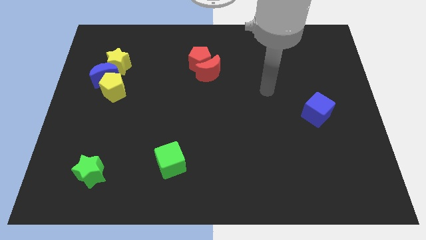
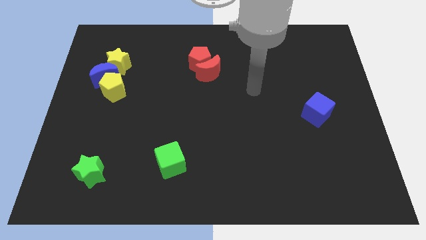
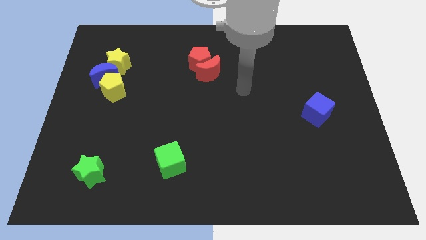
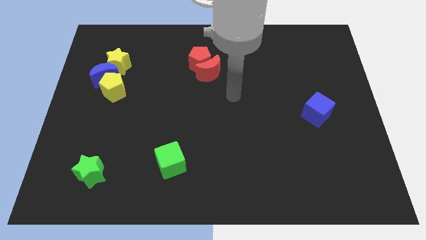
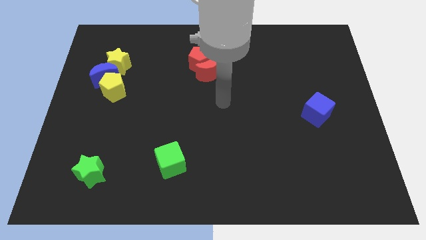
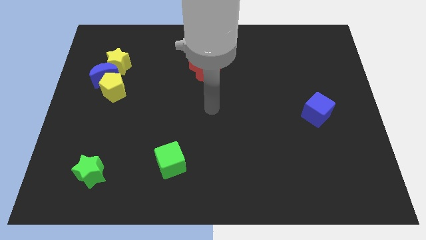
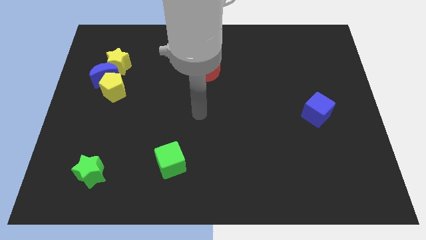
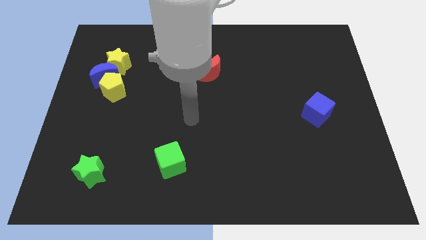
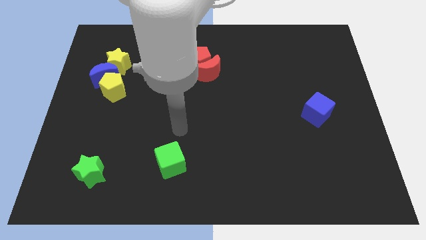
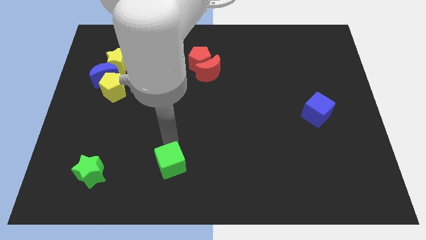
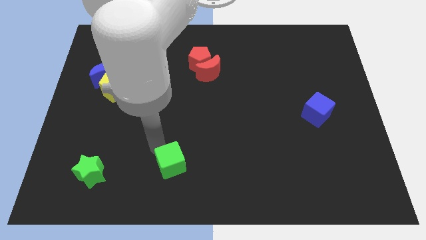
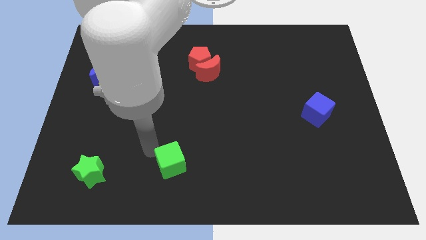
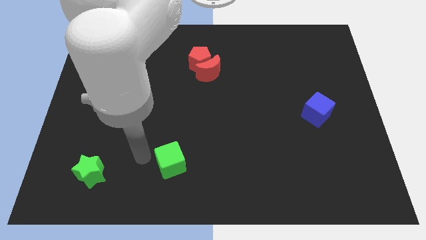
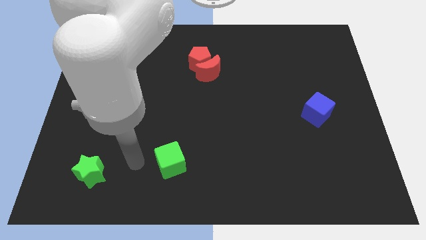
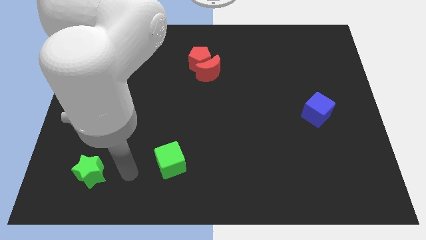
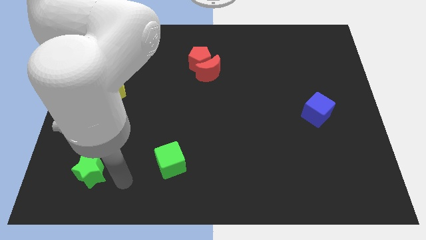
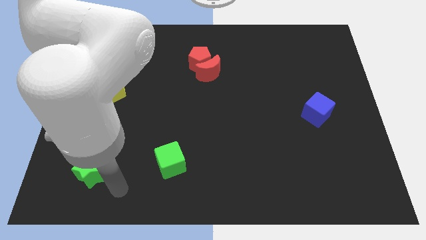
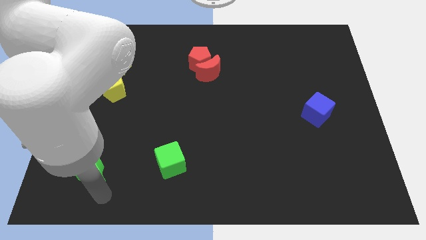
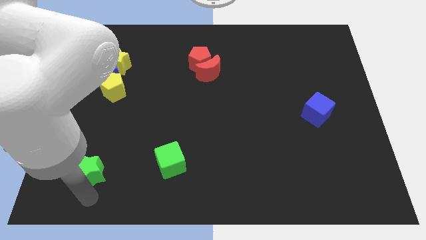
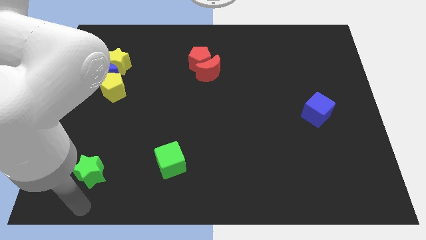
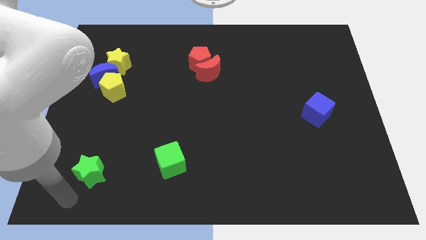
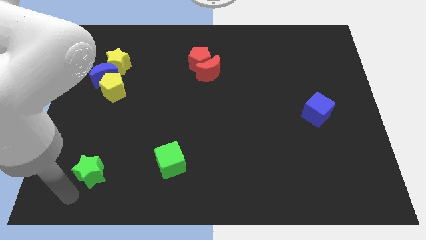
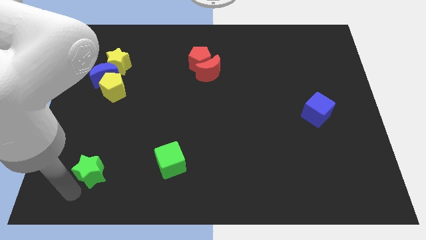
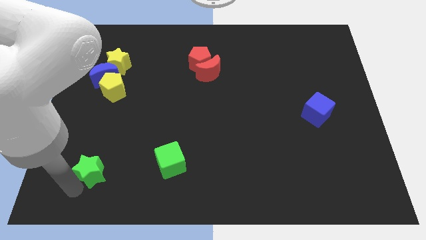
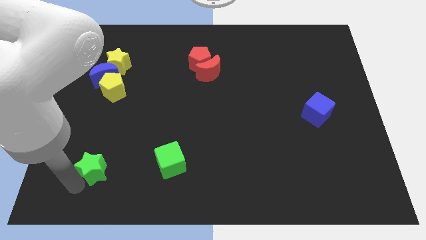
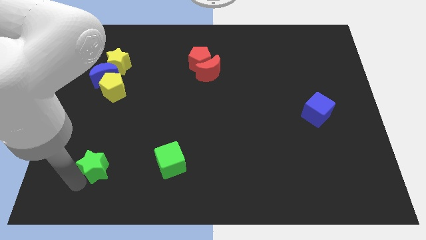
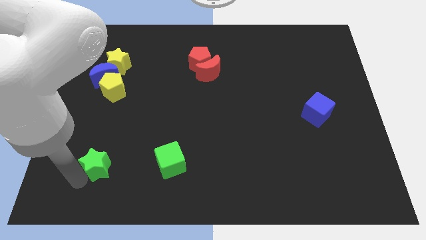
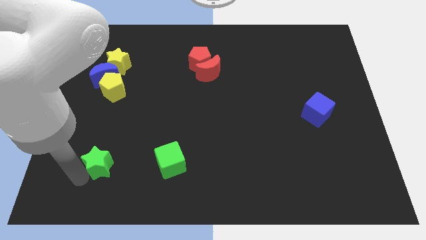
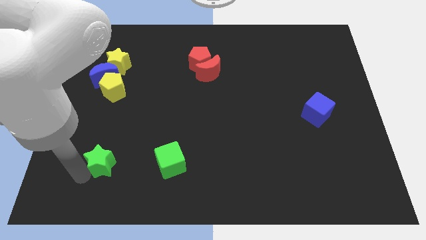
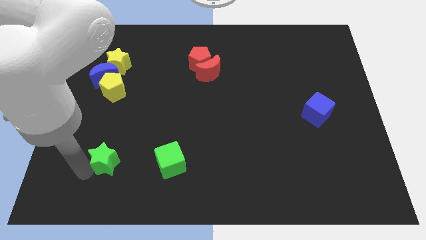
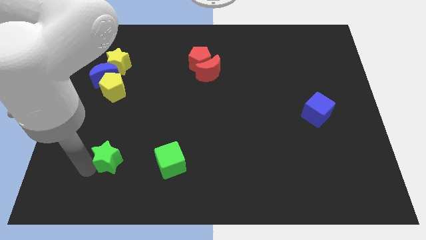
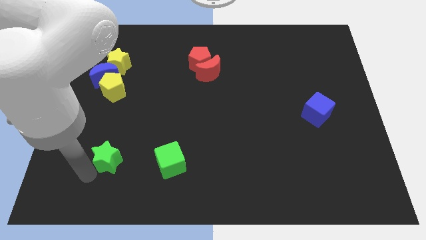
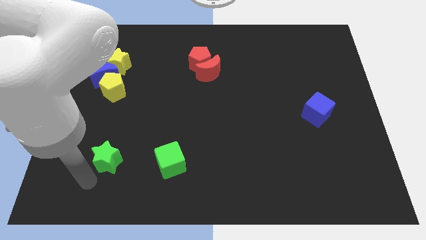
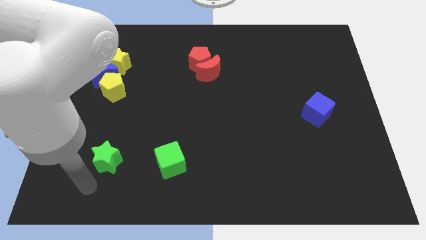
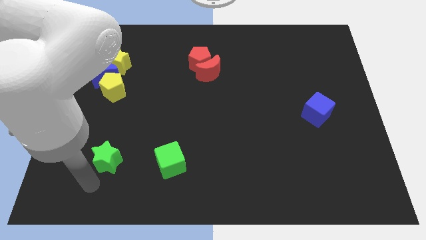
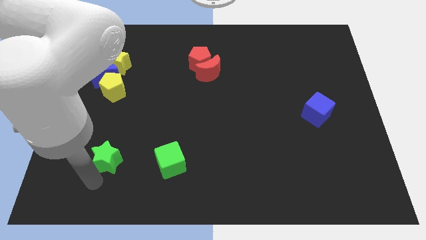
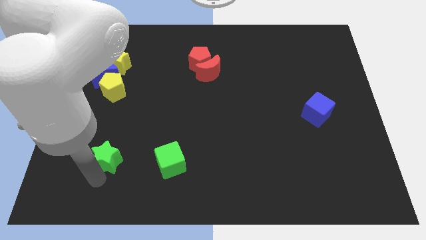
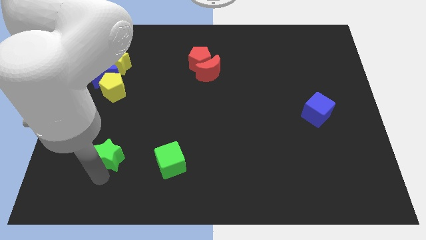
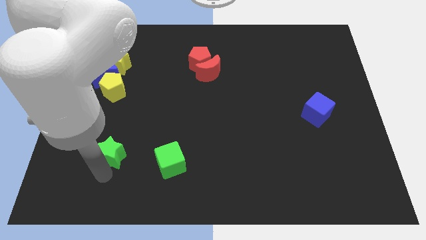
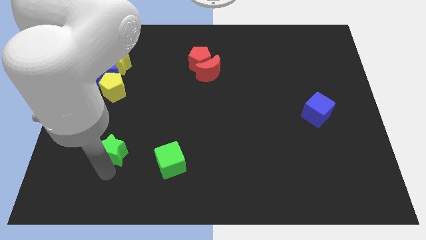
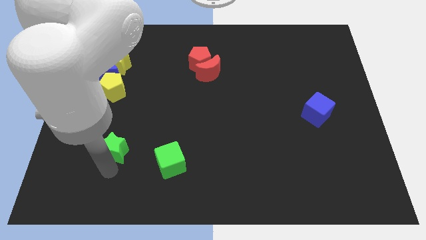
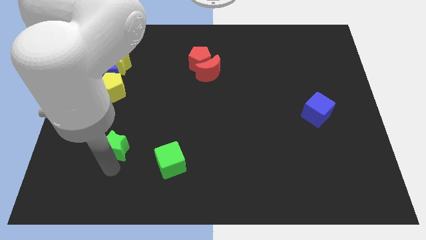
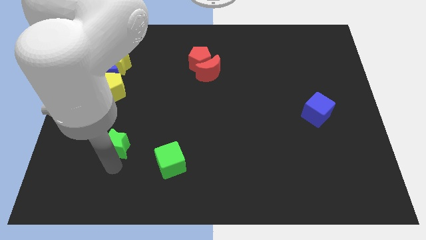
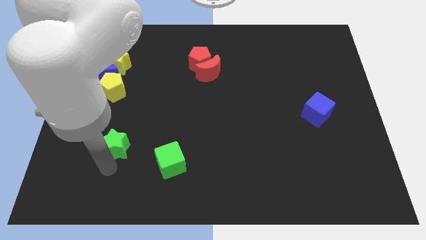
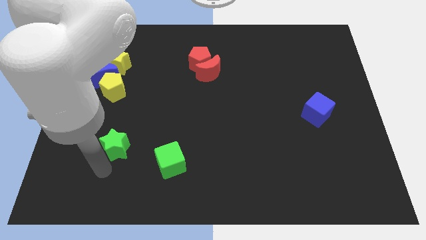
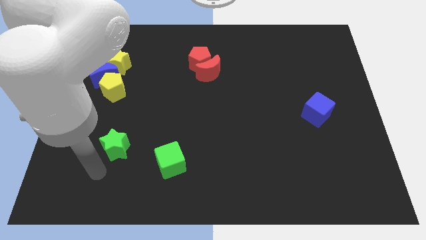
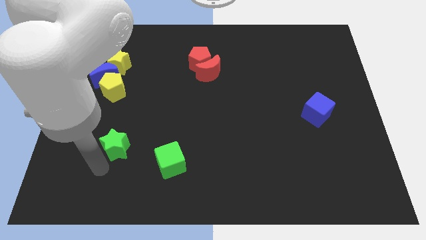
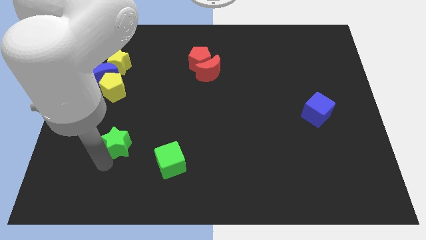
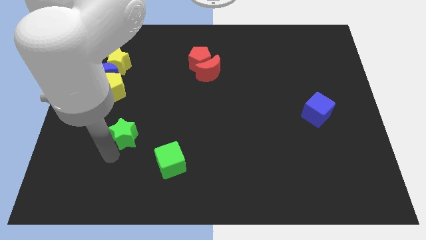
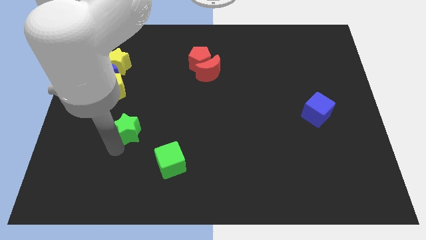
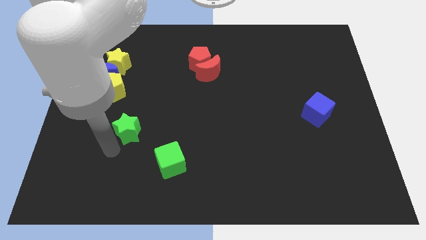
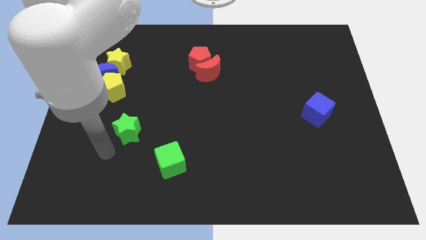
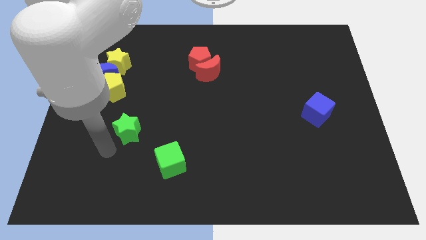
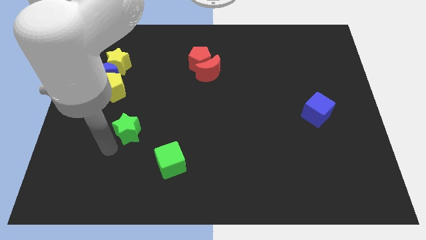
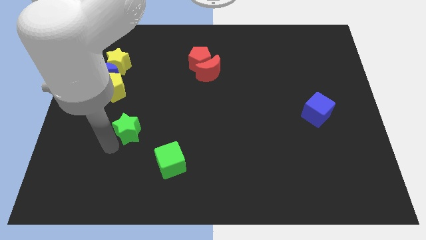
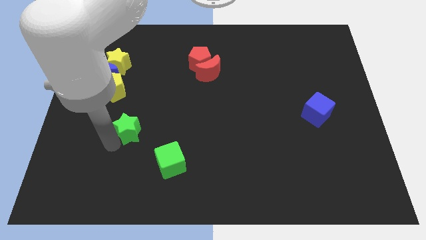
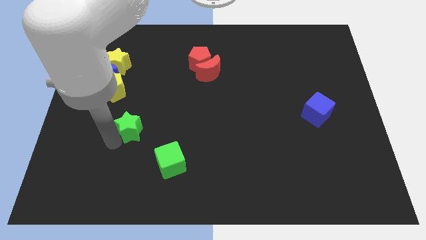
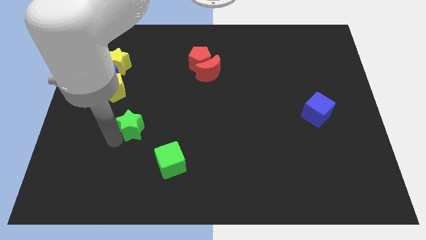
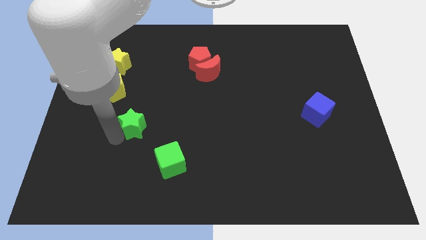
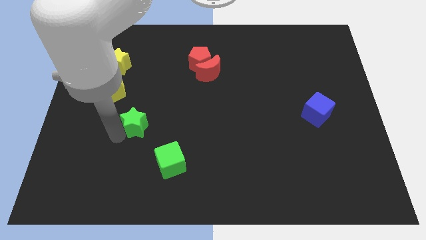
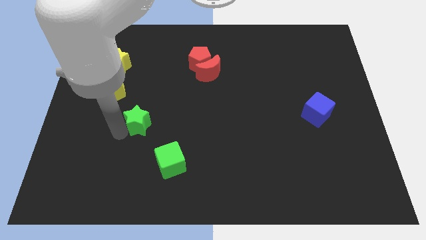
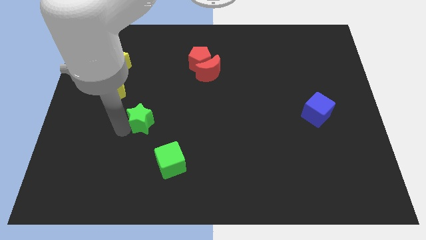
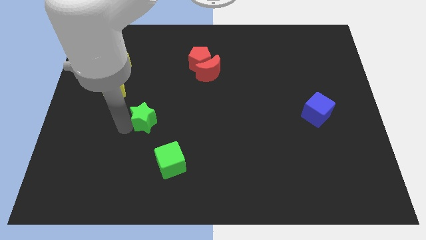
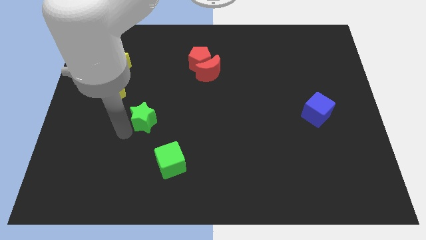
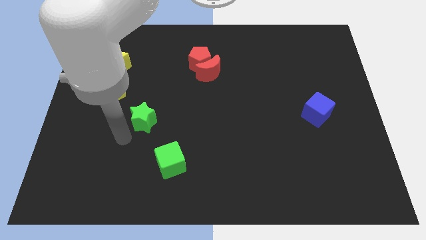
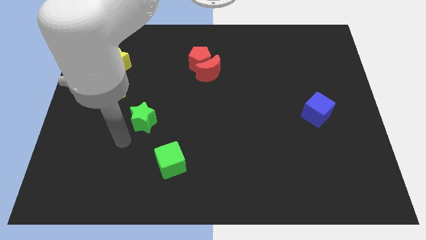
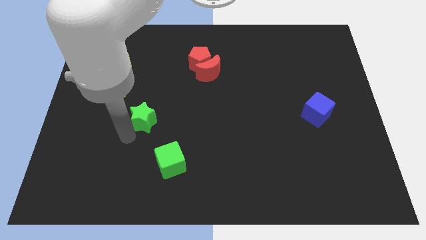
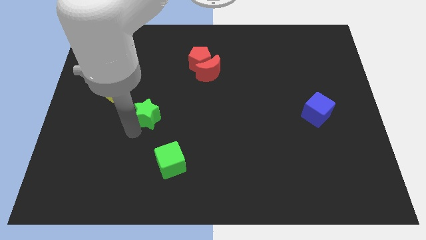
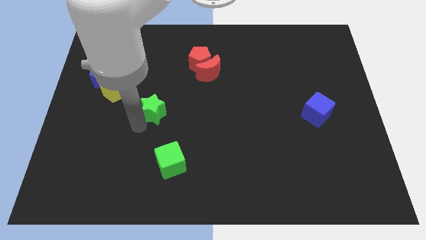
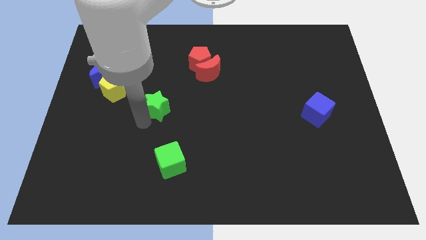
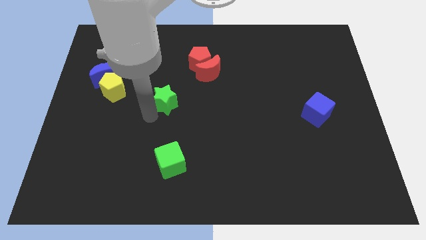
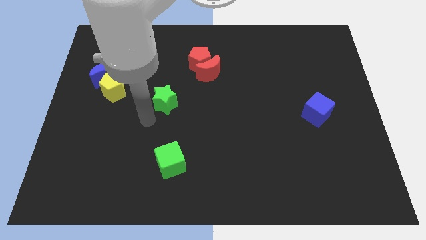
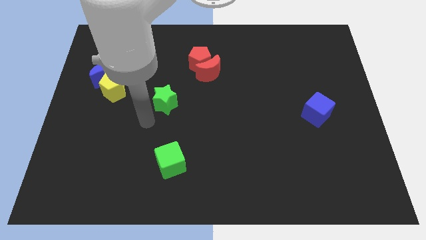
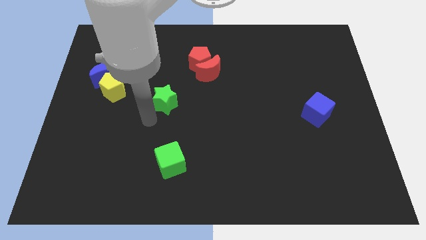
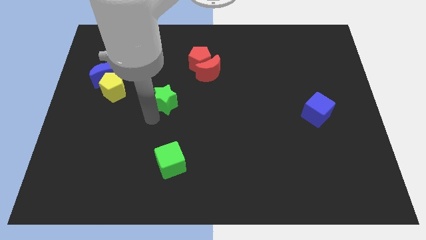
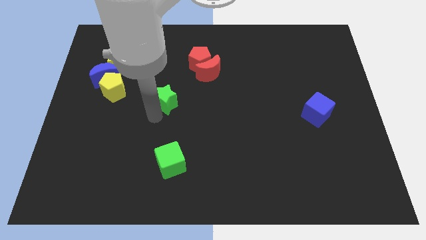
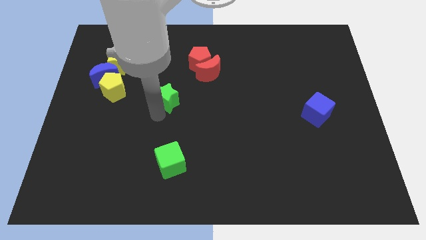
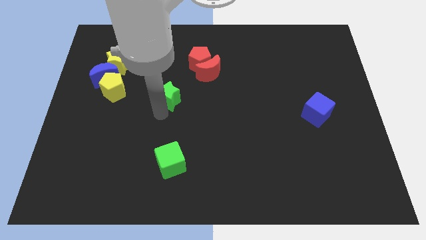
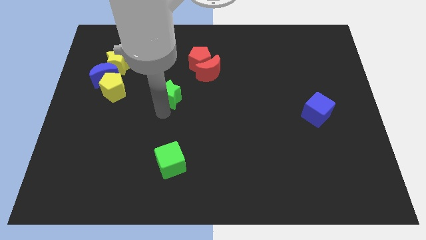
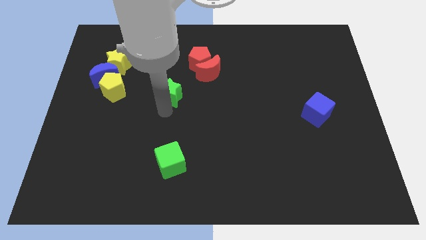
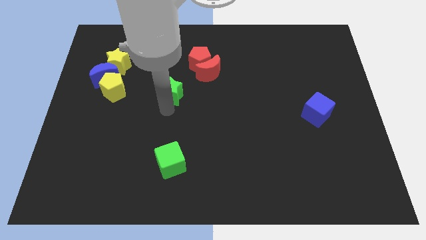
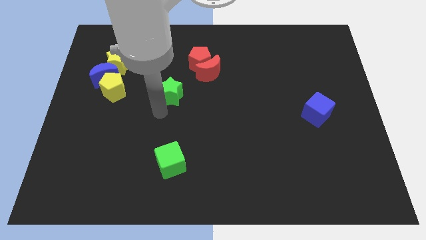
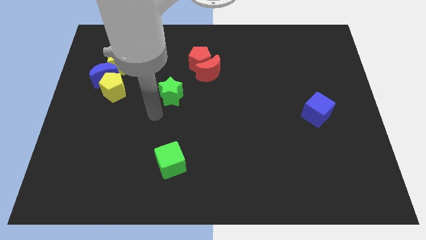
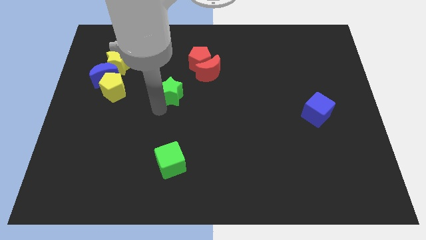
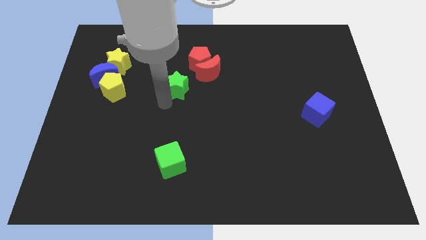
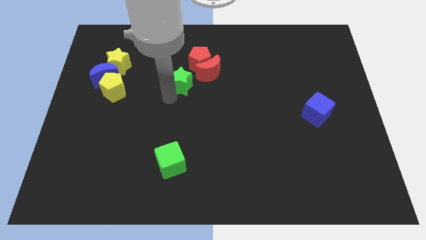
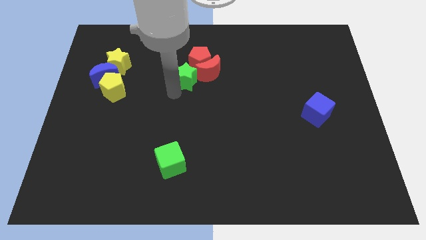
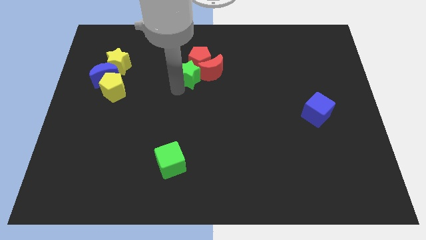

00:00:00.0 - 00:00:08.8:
push the green star to the red pentagon
